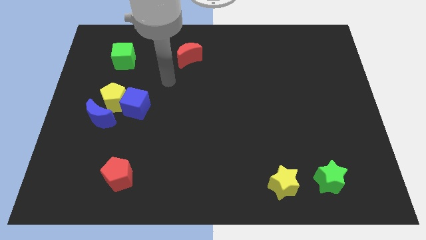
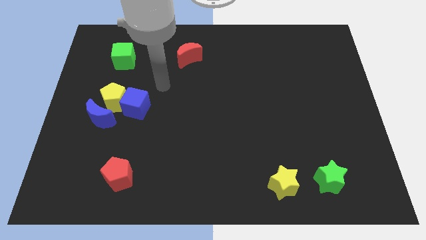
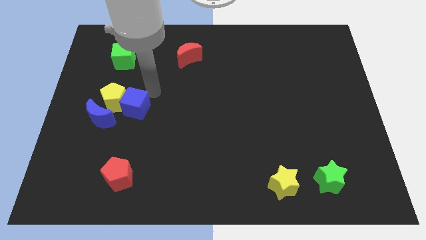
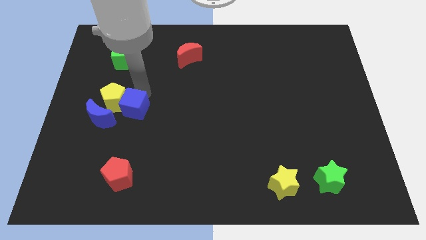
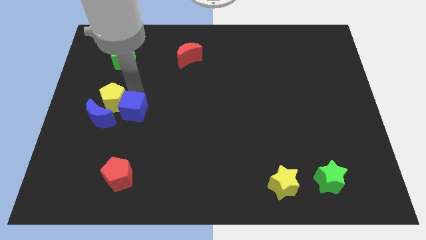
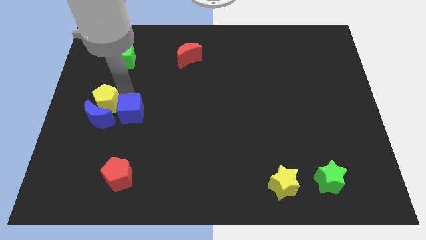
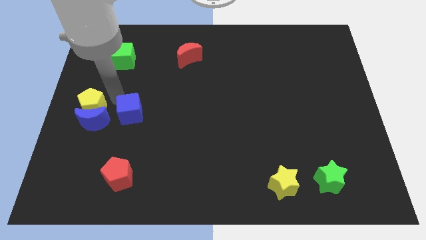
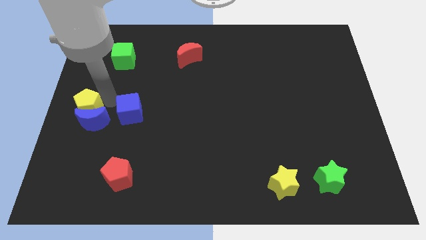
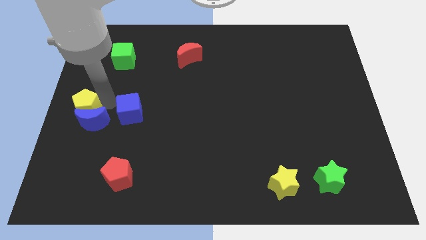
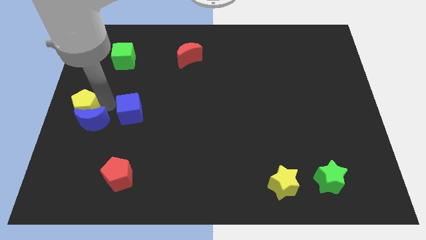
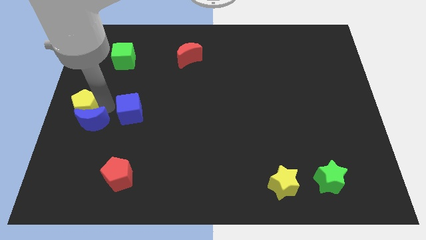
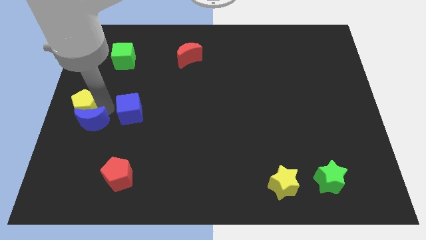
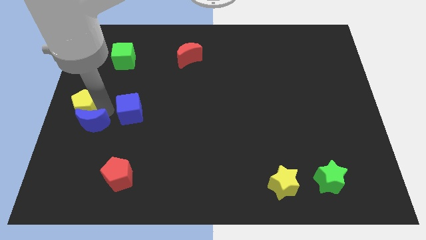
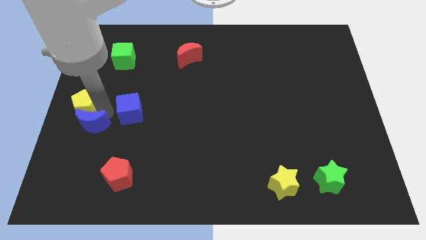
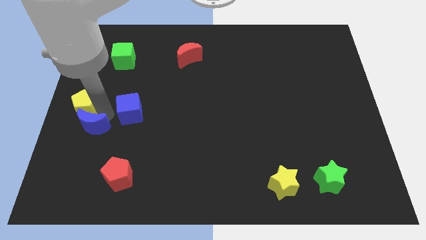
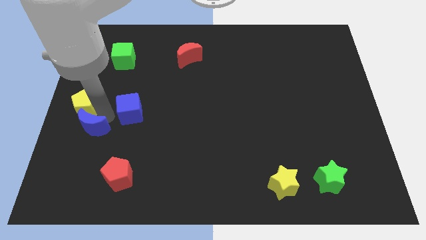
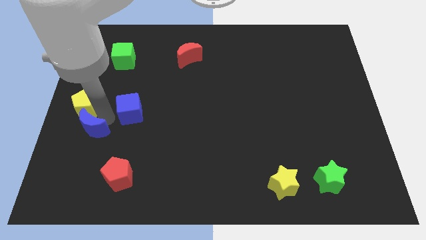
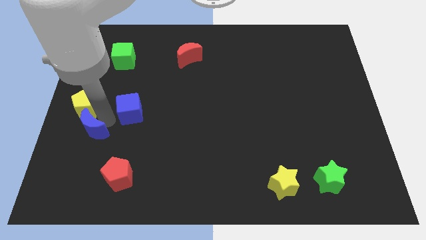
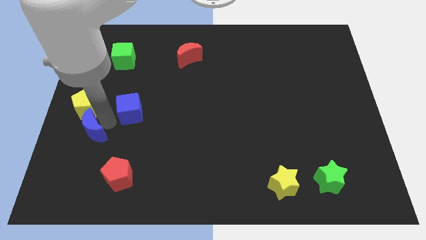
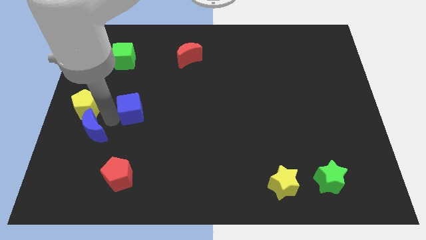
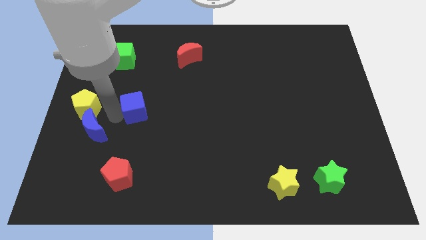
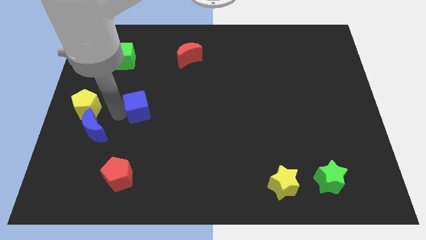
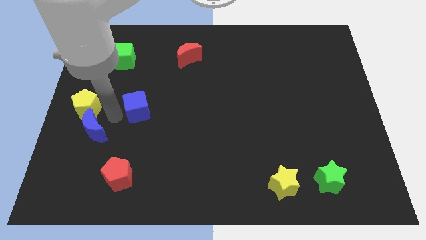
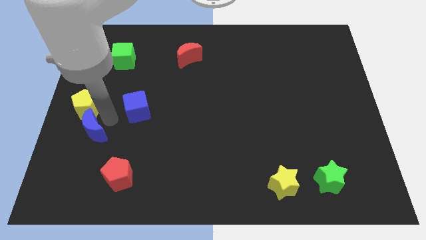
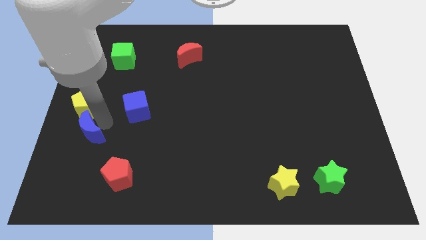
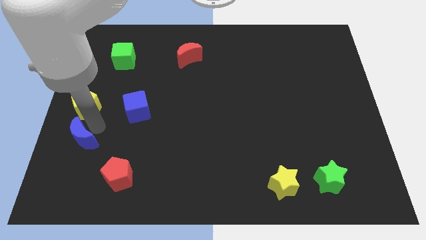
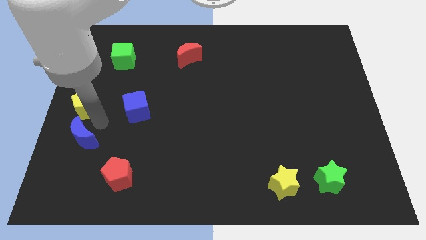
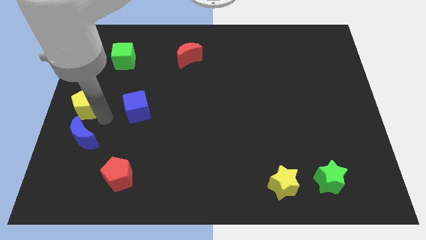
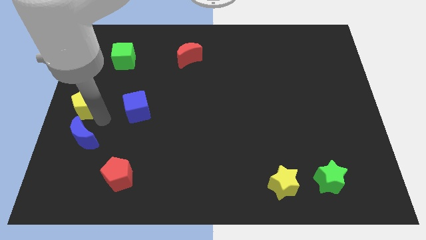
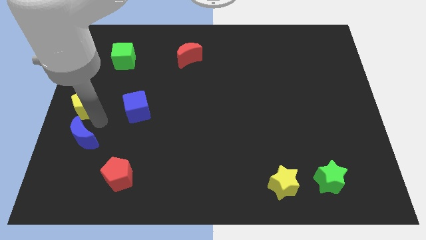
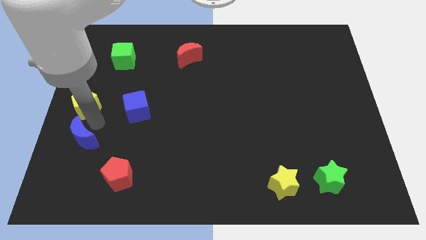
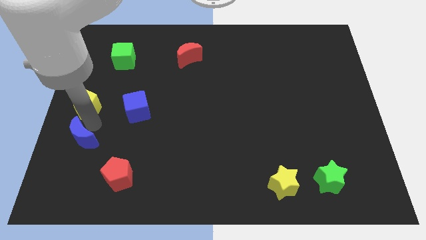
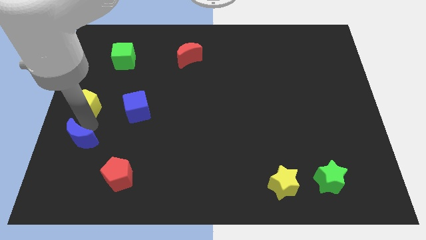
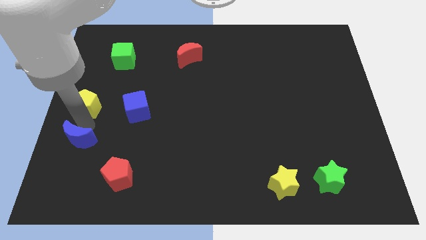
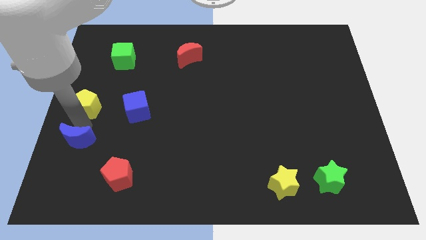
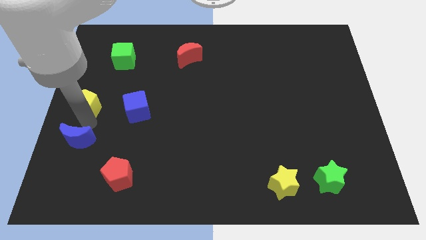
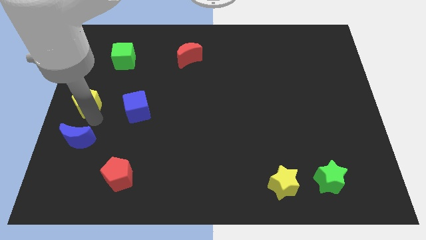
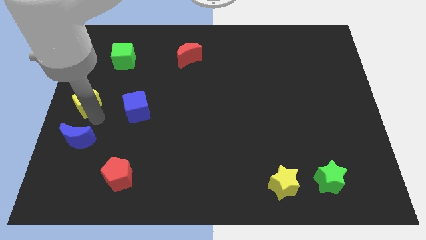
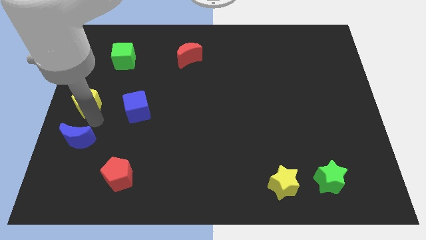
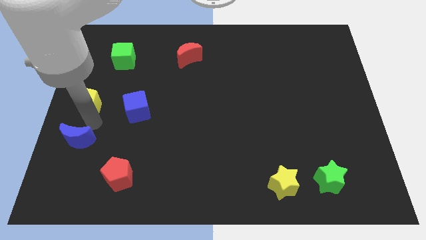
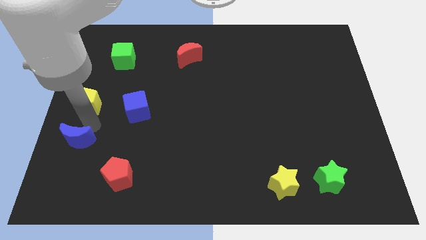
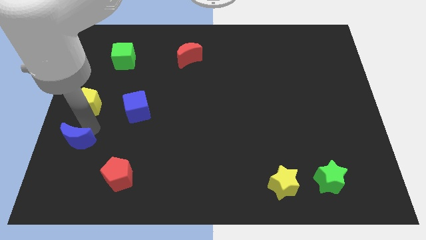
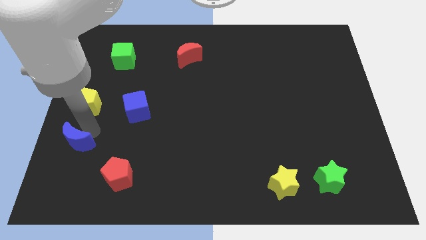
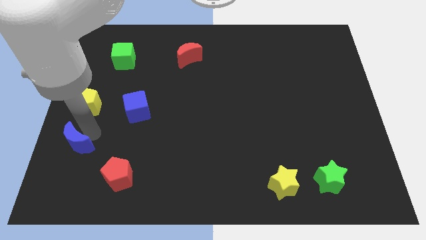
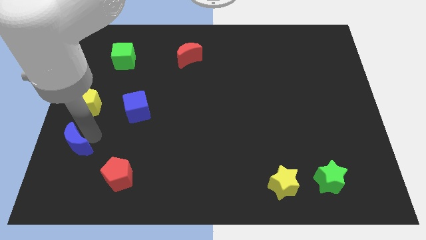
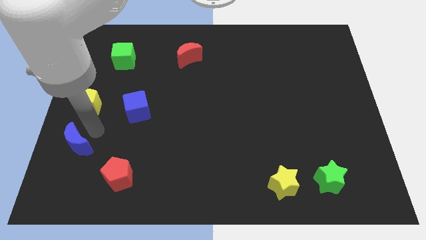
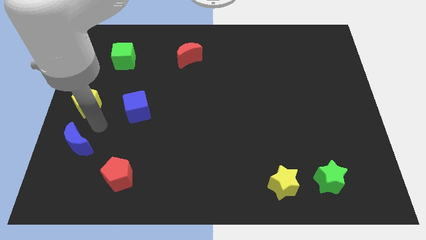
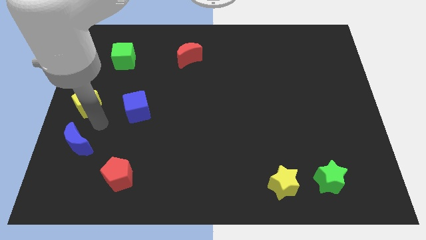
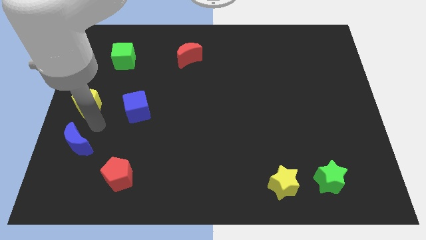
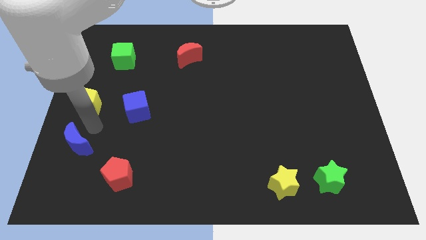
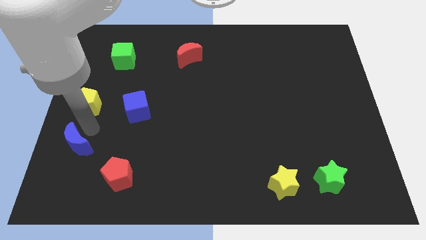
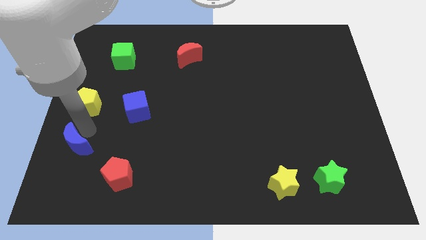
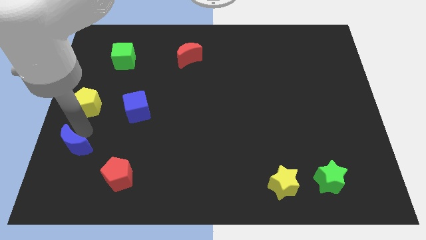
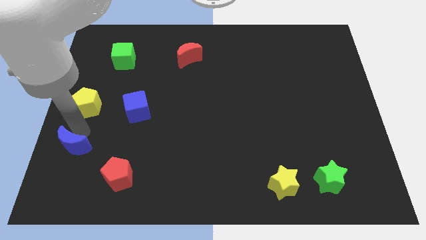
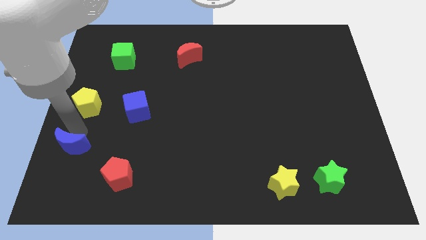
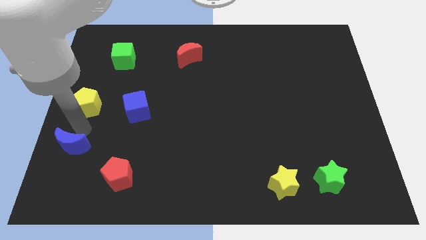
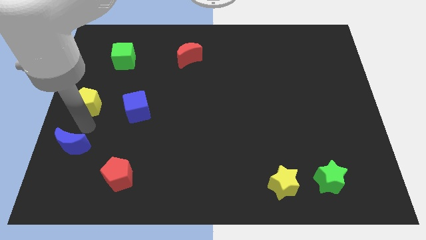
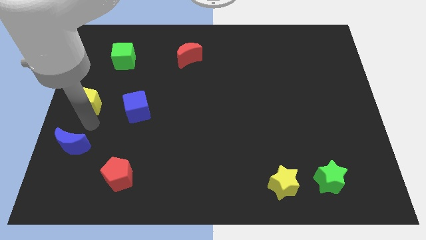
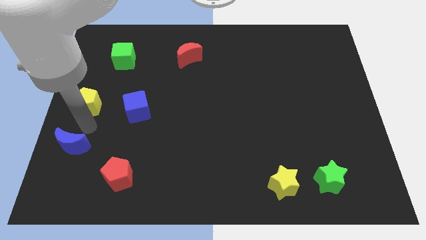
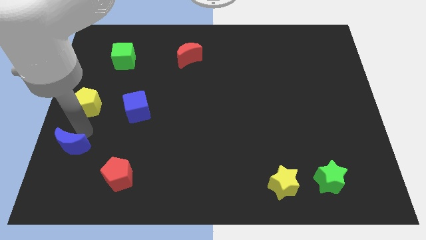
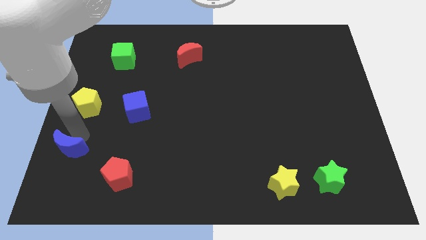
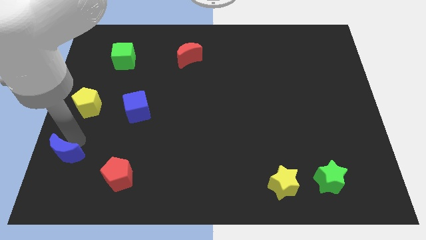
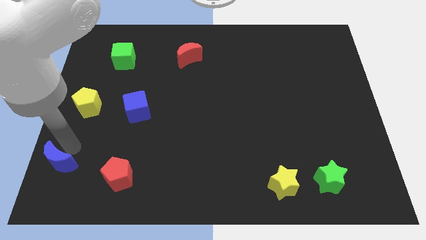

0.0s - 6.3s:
put the blue moon to the bottom left corner

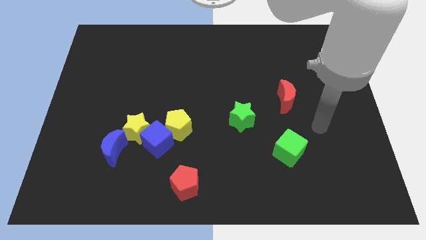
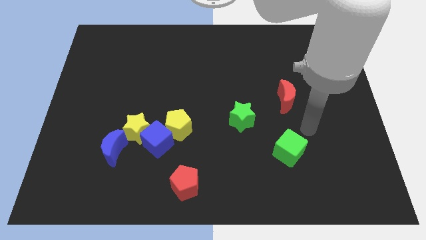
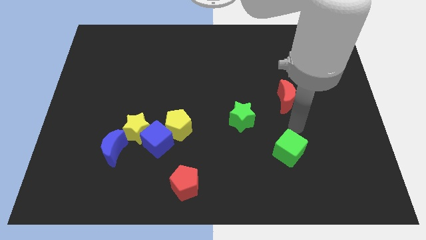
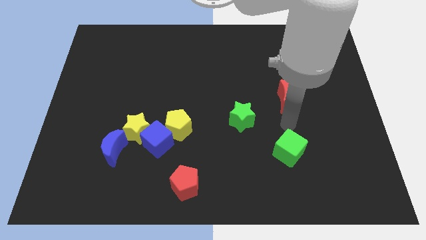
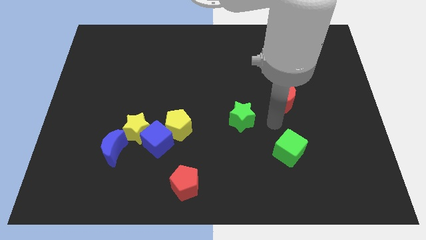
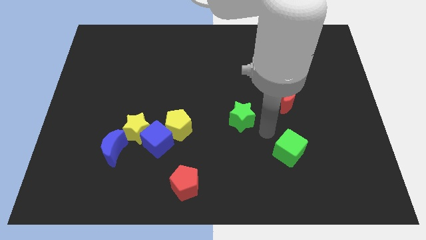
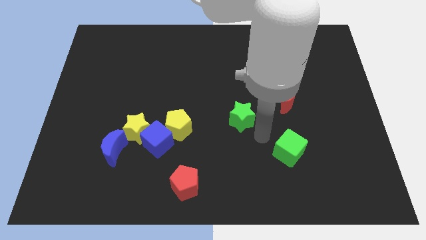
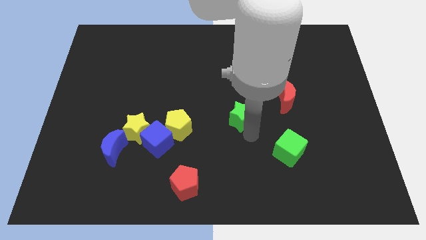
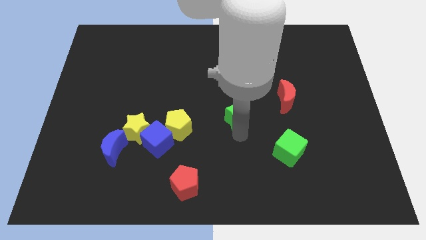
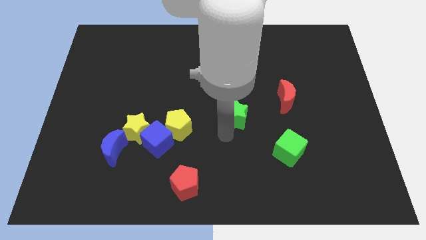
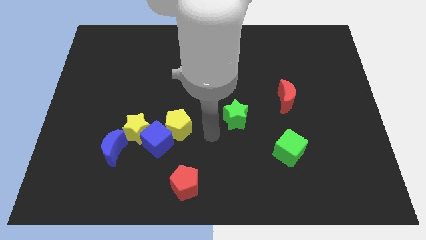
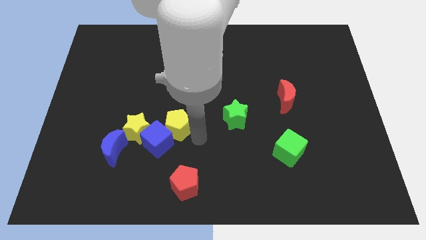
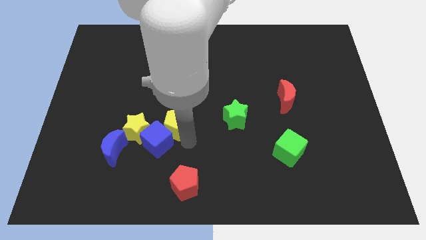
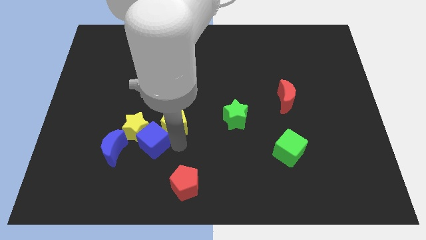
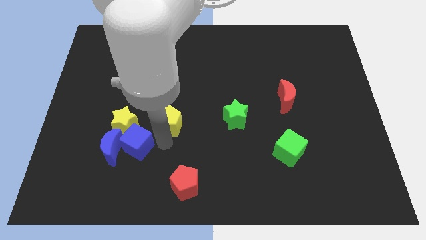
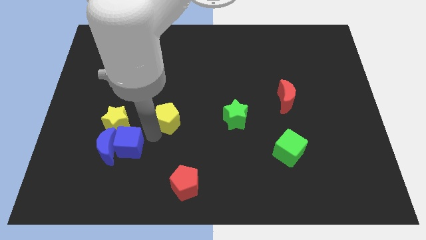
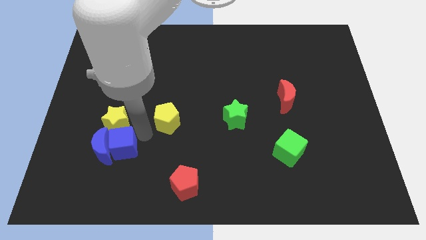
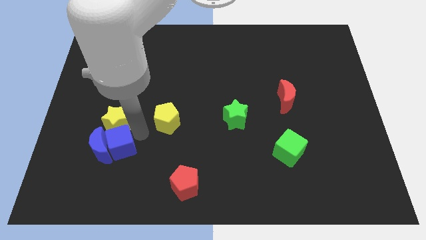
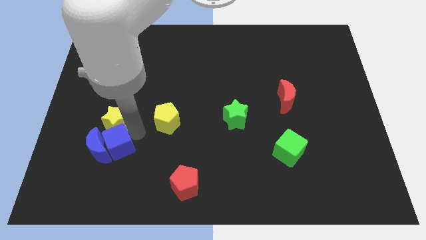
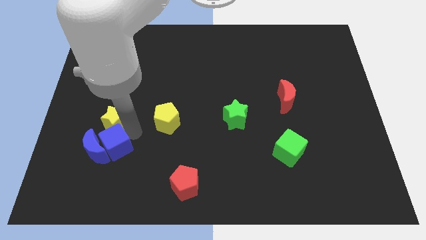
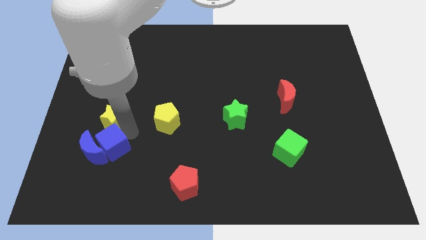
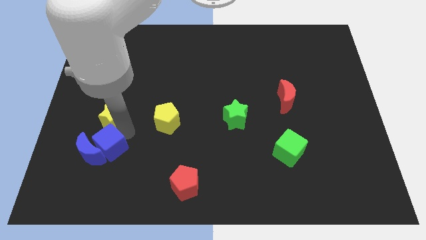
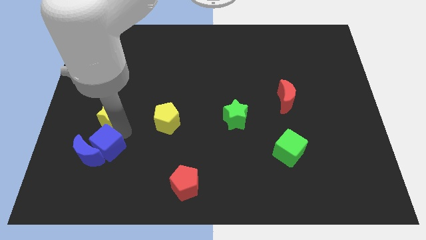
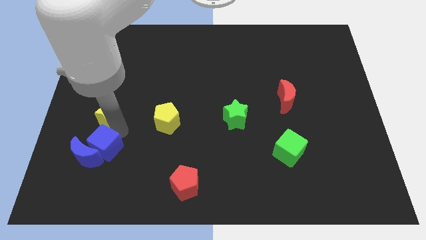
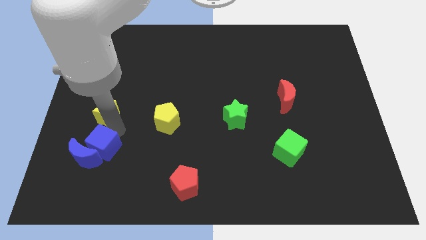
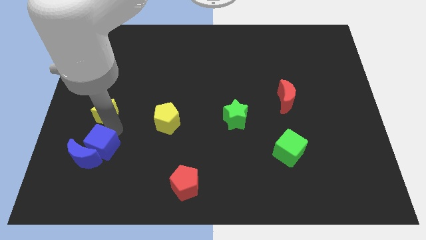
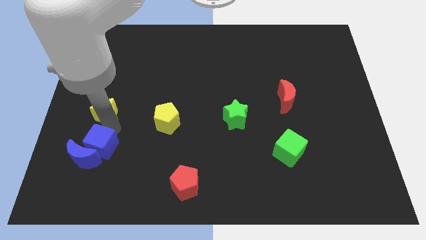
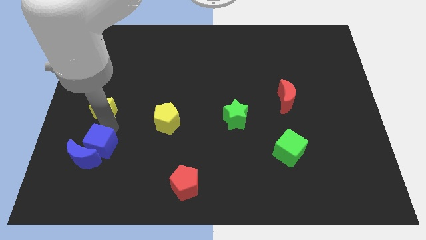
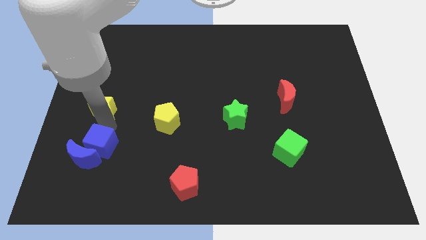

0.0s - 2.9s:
push the yellow star to the left side
